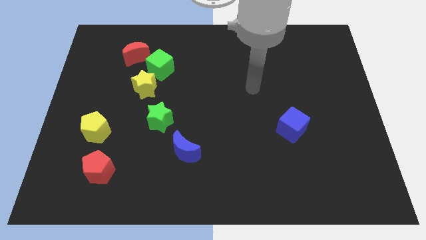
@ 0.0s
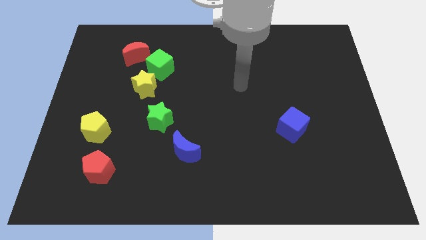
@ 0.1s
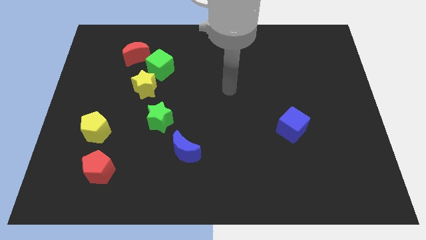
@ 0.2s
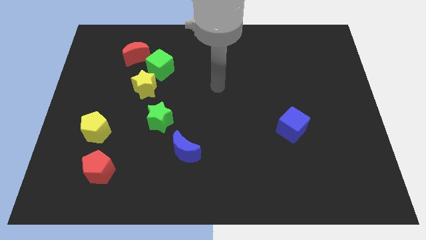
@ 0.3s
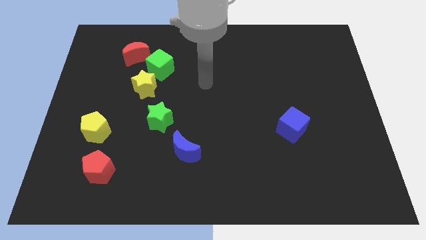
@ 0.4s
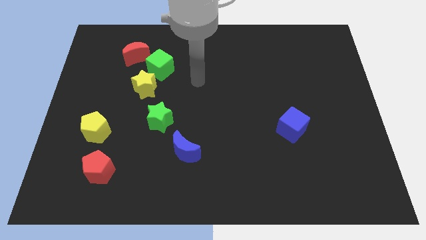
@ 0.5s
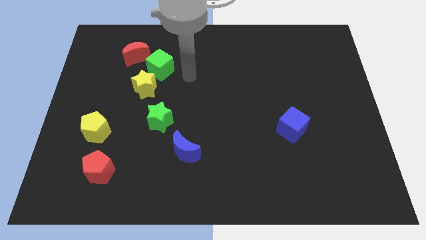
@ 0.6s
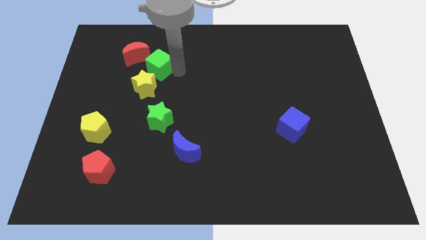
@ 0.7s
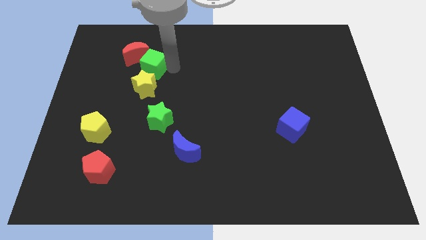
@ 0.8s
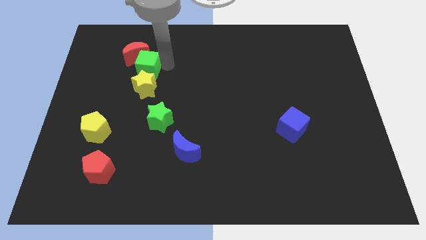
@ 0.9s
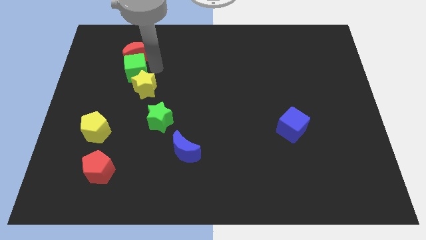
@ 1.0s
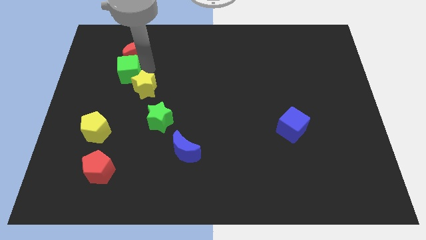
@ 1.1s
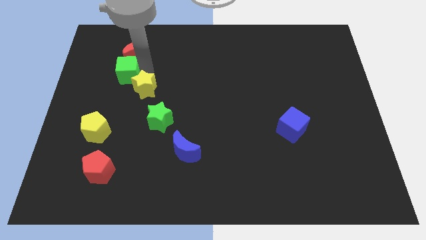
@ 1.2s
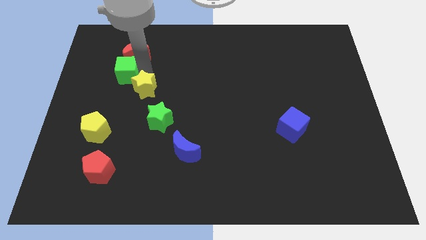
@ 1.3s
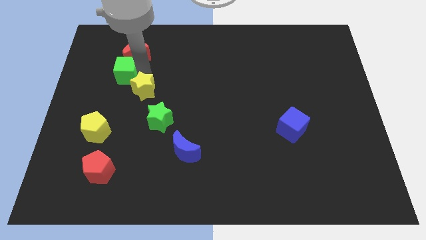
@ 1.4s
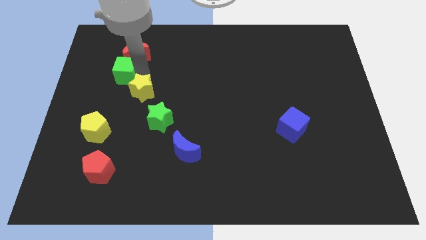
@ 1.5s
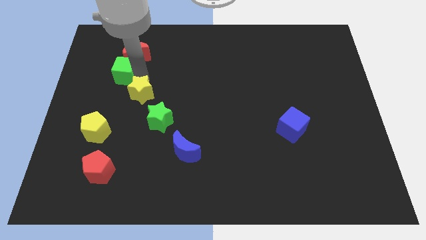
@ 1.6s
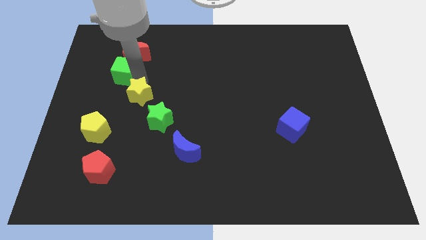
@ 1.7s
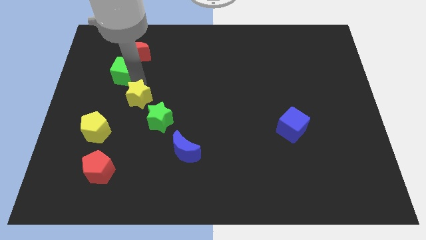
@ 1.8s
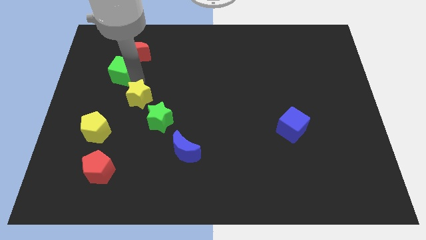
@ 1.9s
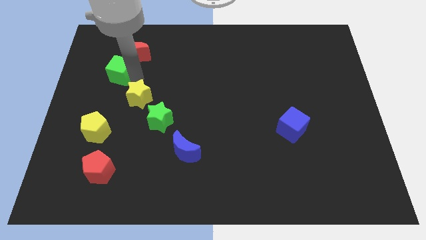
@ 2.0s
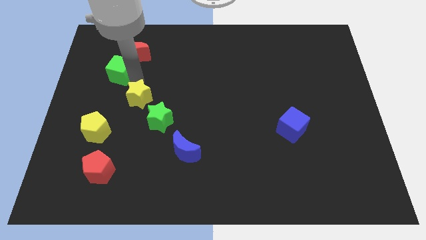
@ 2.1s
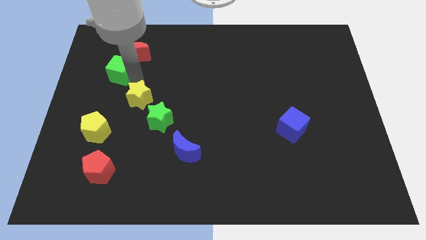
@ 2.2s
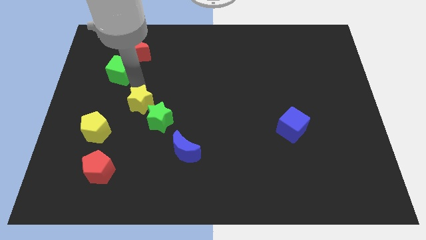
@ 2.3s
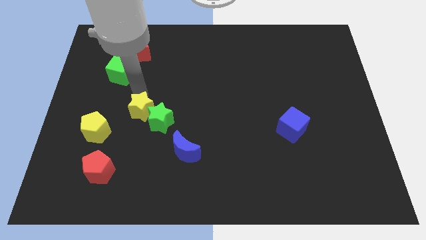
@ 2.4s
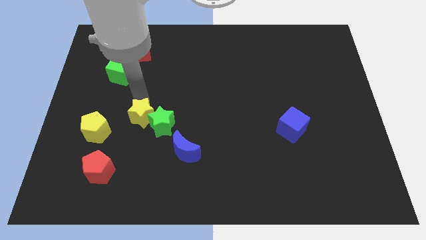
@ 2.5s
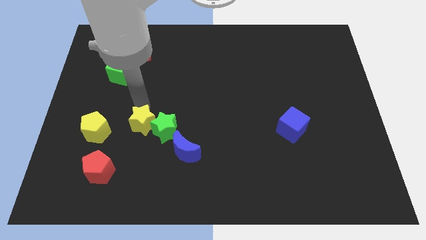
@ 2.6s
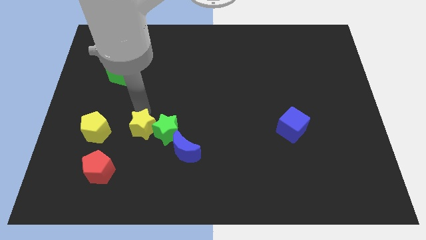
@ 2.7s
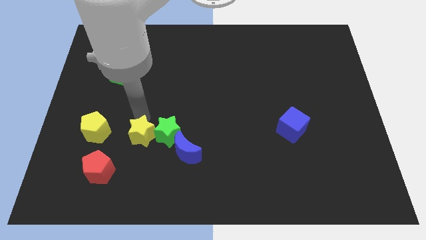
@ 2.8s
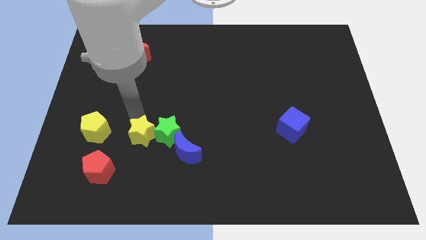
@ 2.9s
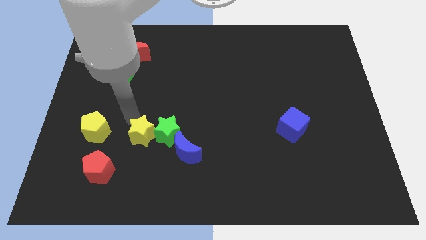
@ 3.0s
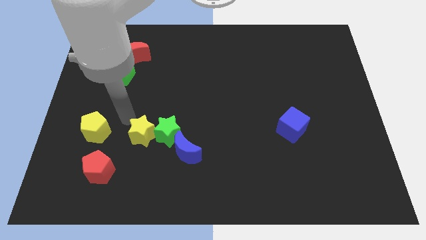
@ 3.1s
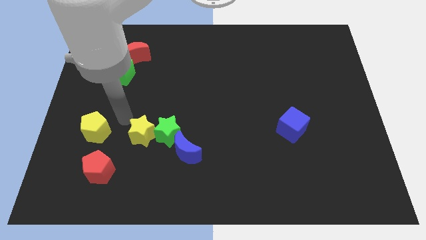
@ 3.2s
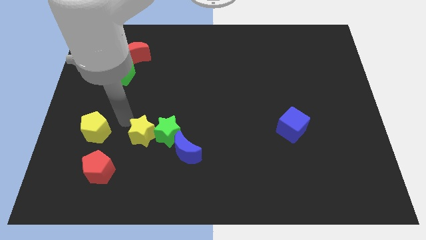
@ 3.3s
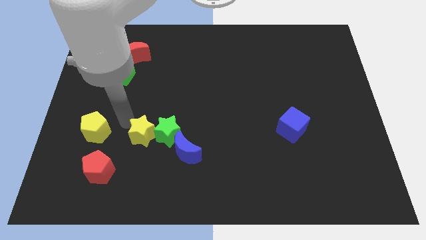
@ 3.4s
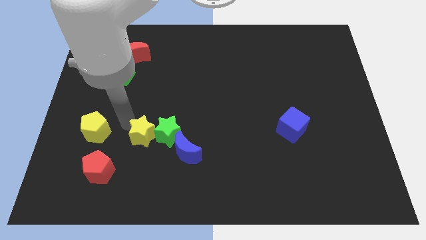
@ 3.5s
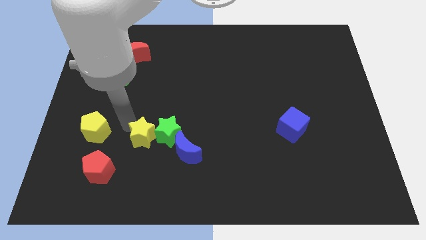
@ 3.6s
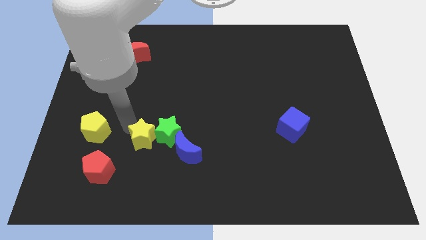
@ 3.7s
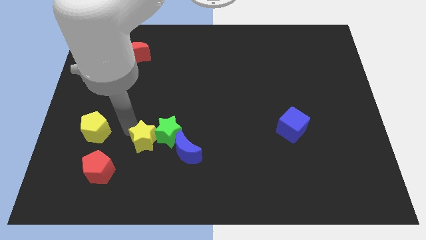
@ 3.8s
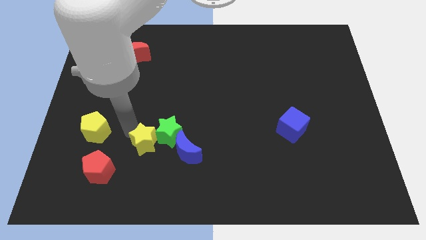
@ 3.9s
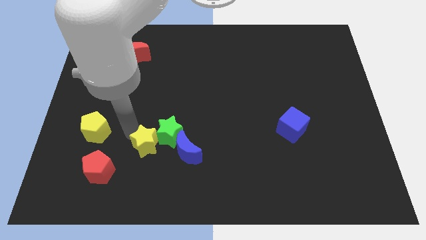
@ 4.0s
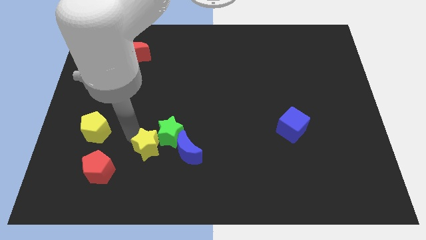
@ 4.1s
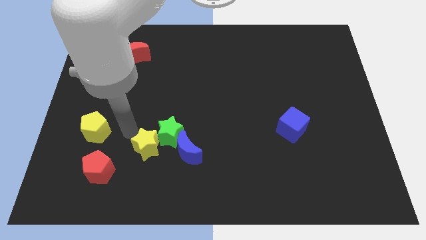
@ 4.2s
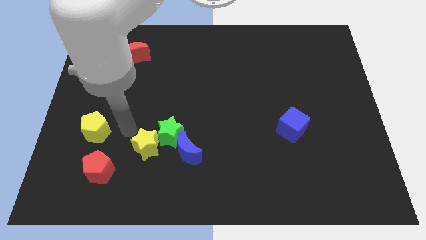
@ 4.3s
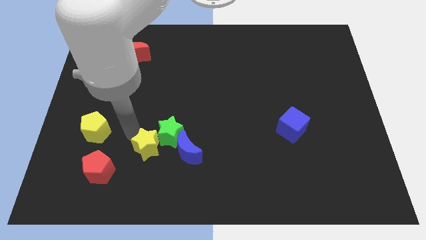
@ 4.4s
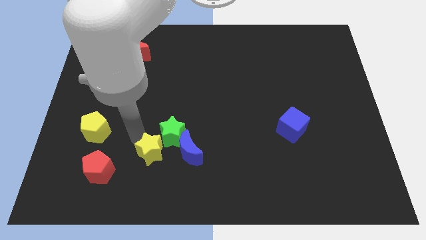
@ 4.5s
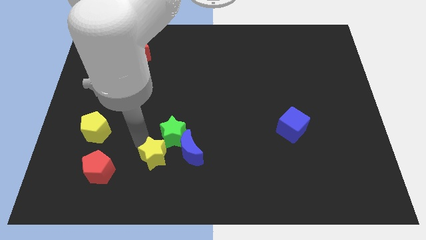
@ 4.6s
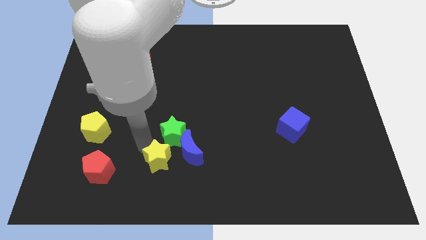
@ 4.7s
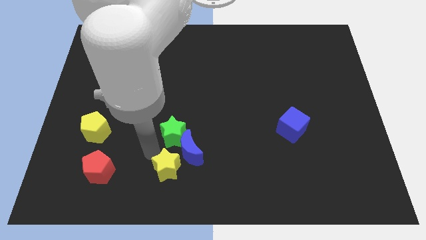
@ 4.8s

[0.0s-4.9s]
put the yellow star to the bottom side

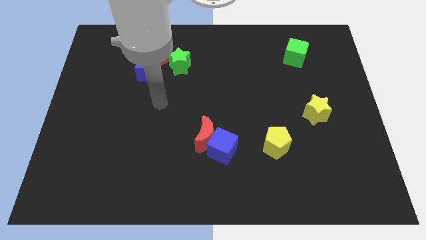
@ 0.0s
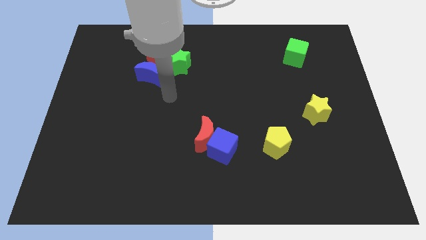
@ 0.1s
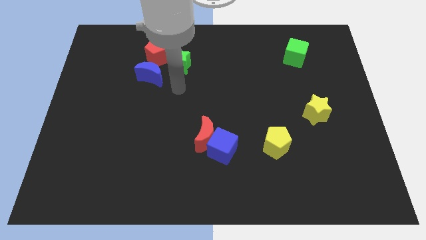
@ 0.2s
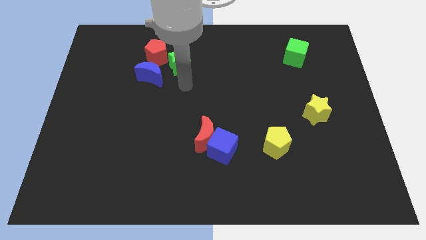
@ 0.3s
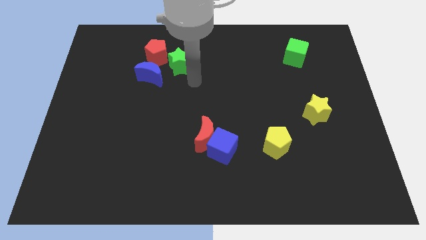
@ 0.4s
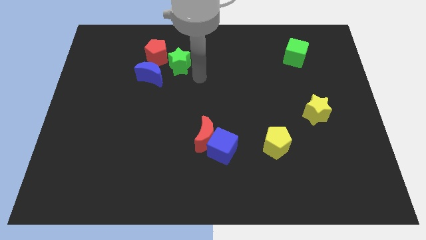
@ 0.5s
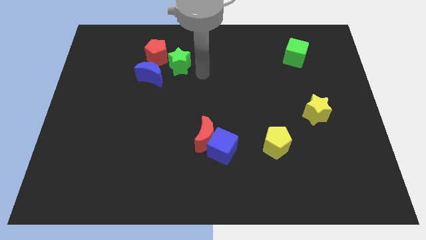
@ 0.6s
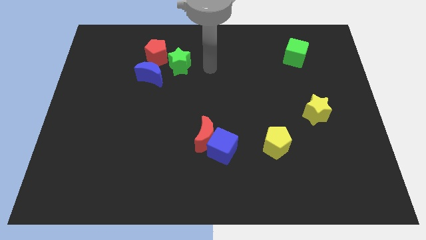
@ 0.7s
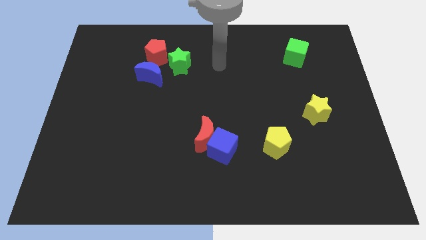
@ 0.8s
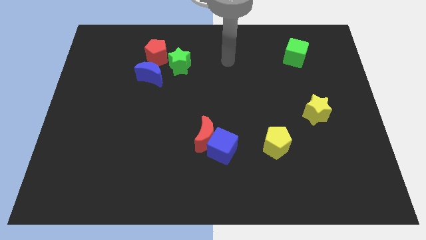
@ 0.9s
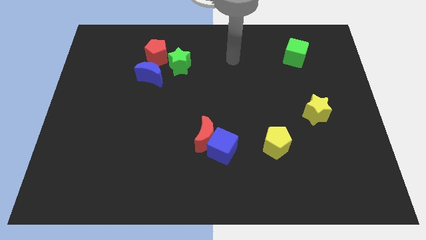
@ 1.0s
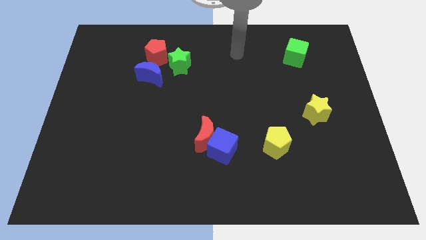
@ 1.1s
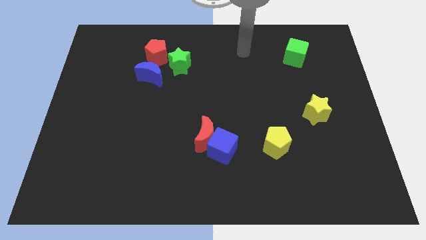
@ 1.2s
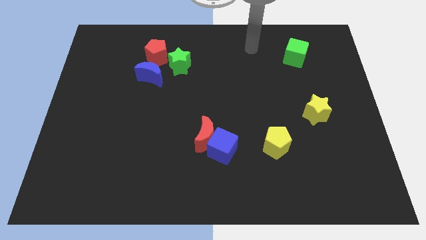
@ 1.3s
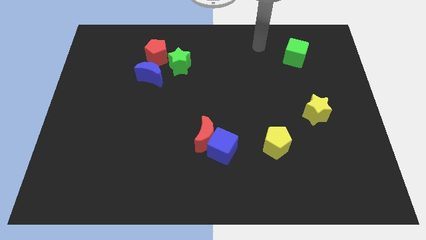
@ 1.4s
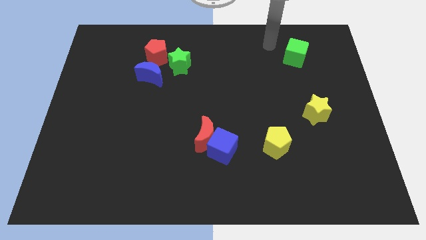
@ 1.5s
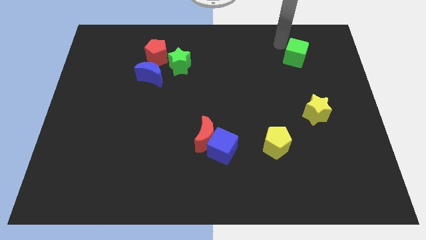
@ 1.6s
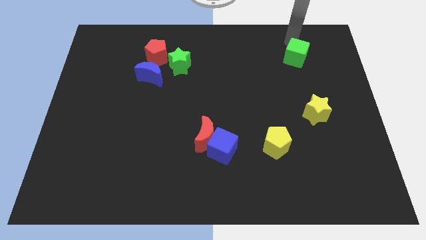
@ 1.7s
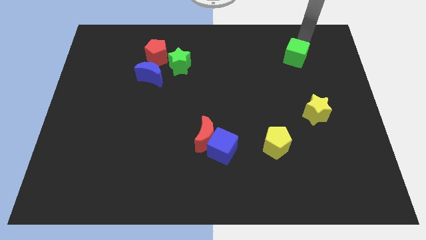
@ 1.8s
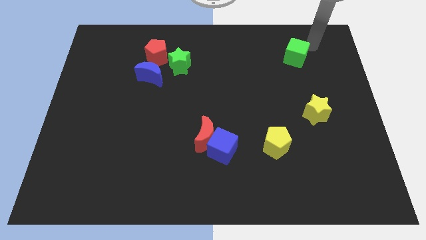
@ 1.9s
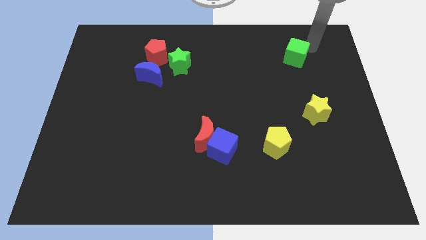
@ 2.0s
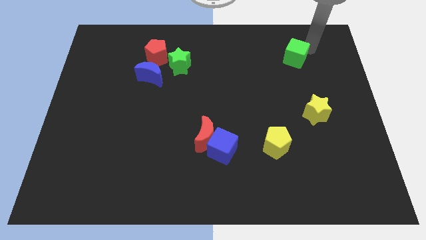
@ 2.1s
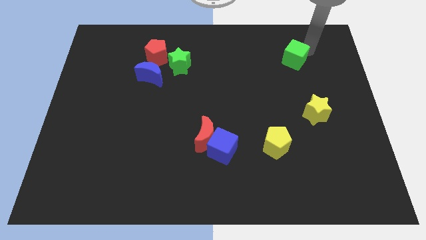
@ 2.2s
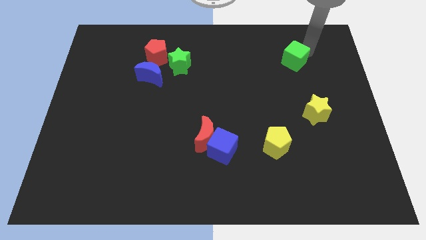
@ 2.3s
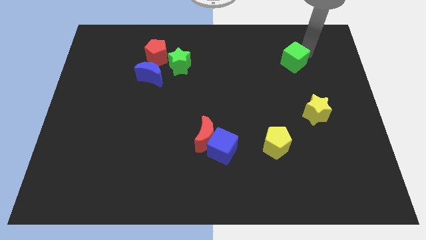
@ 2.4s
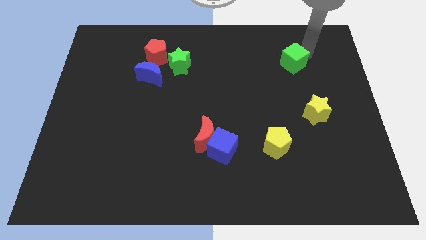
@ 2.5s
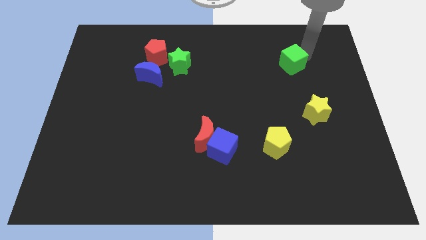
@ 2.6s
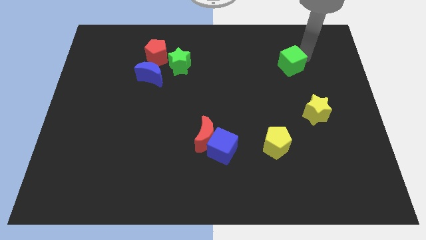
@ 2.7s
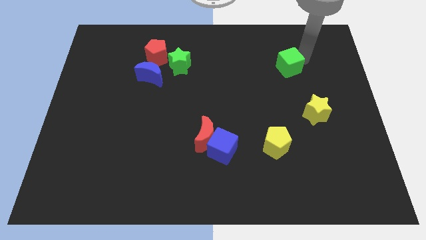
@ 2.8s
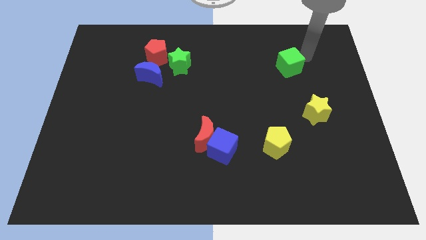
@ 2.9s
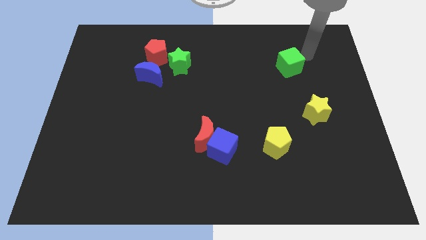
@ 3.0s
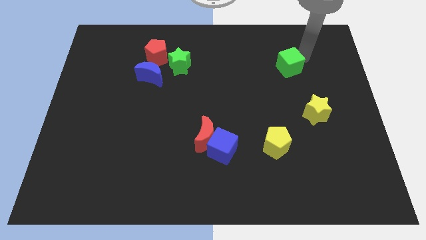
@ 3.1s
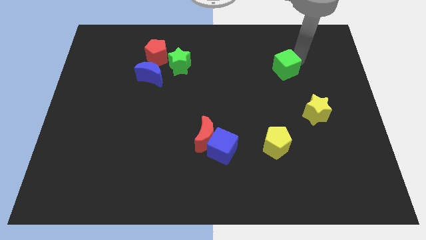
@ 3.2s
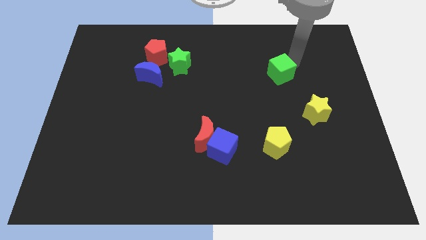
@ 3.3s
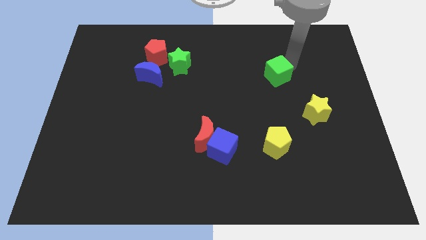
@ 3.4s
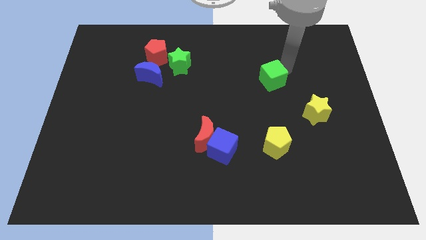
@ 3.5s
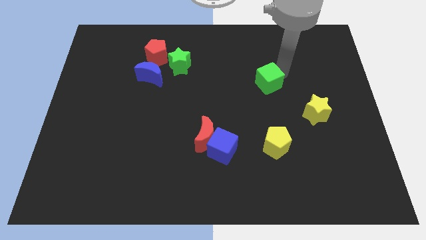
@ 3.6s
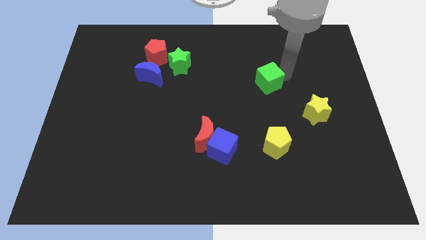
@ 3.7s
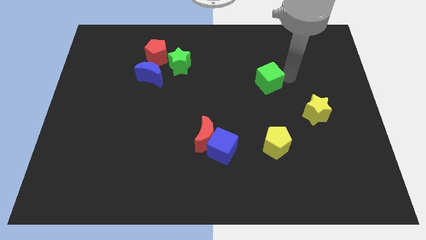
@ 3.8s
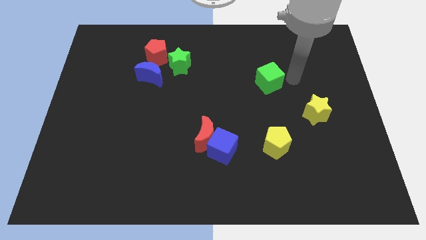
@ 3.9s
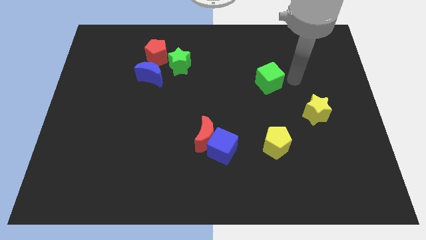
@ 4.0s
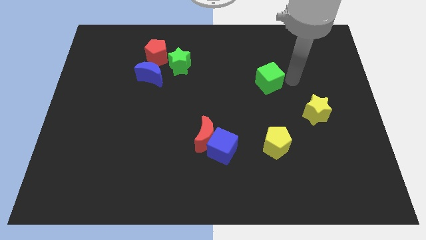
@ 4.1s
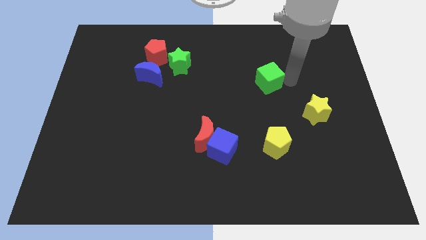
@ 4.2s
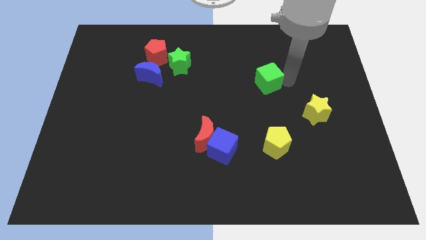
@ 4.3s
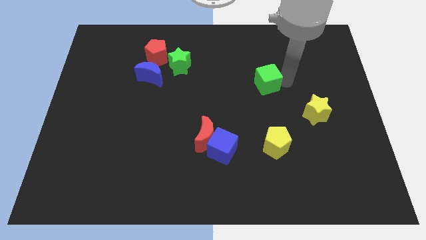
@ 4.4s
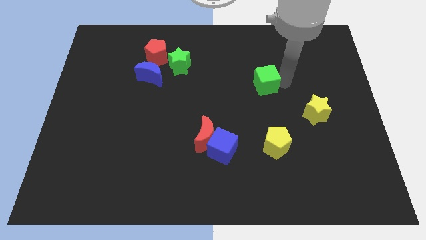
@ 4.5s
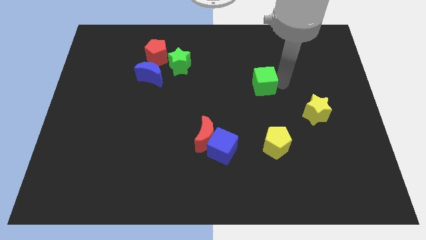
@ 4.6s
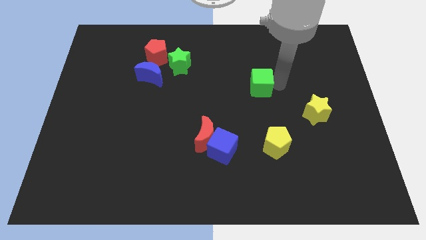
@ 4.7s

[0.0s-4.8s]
move the green cube to the center of the board
